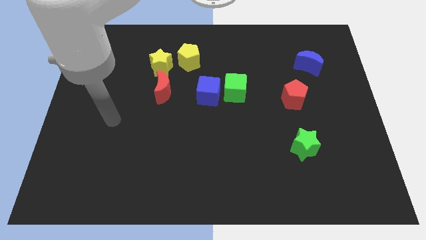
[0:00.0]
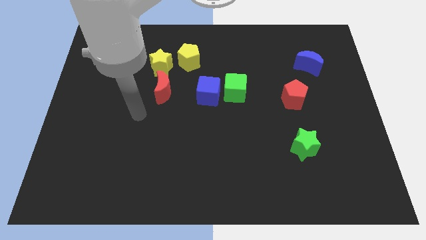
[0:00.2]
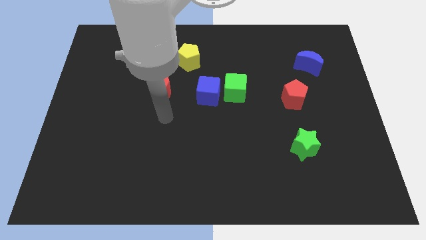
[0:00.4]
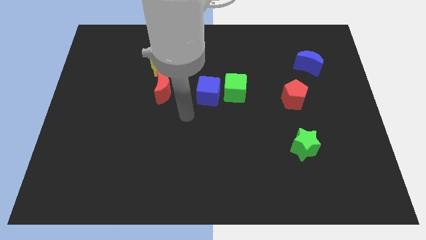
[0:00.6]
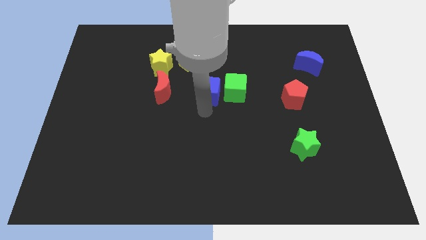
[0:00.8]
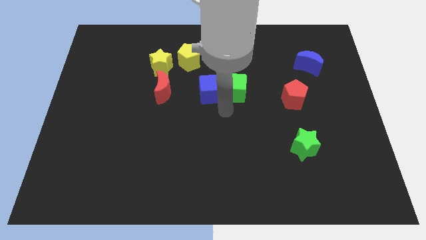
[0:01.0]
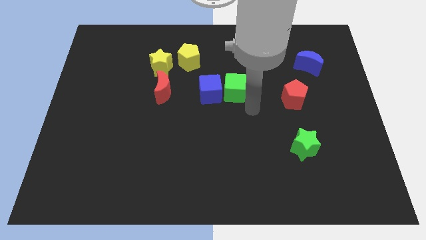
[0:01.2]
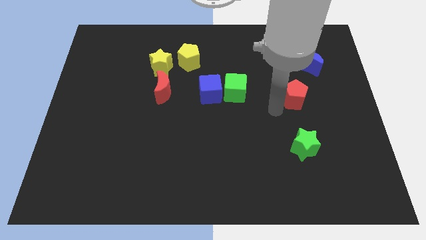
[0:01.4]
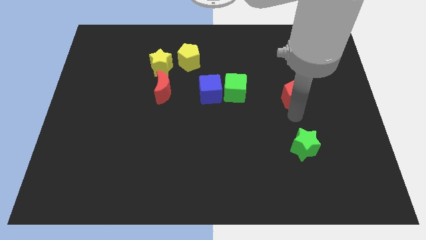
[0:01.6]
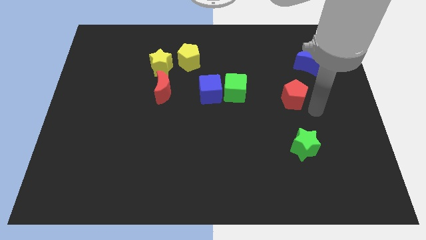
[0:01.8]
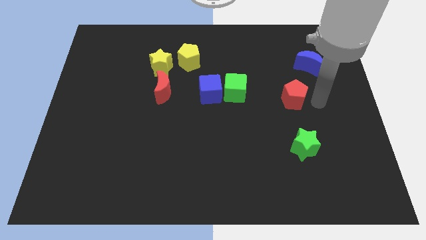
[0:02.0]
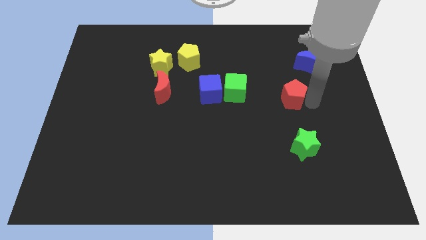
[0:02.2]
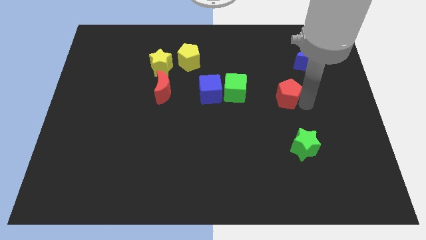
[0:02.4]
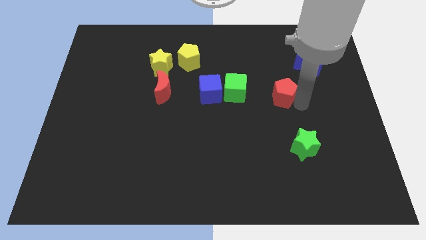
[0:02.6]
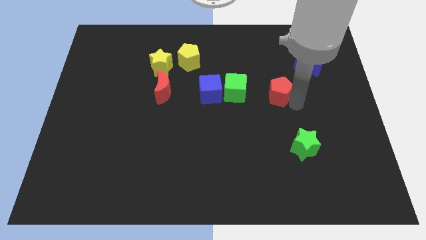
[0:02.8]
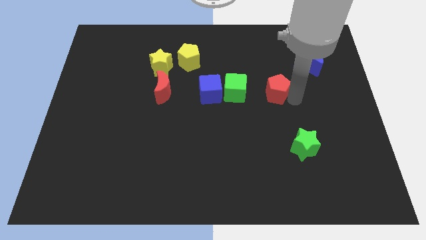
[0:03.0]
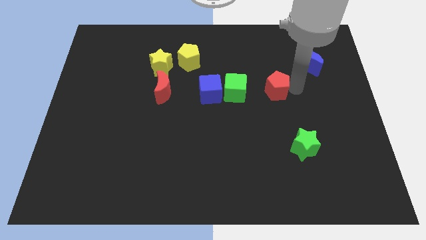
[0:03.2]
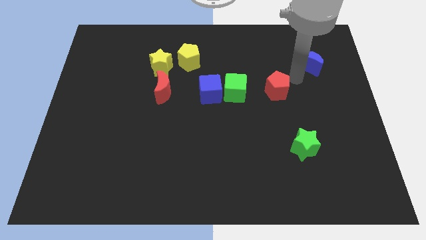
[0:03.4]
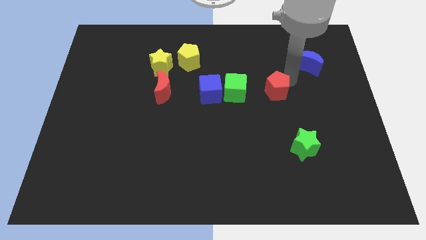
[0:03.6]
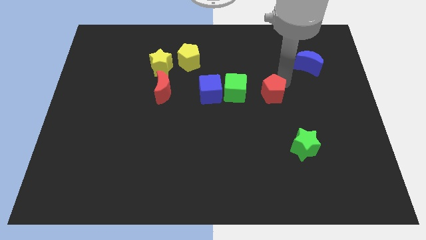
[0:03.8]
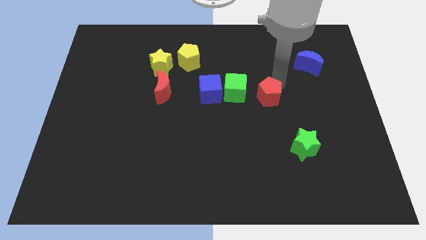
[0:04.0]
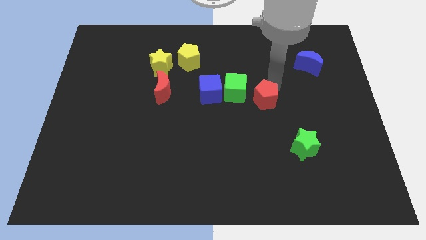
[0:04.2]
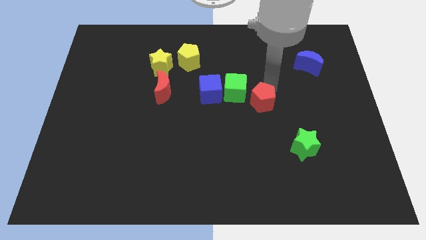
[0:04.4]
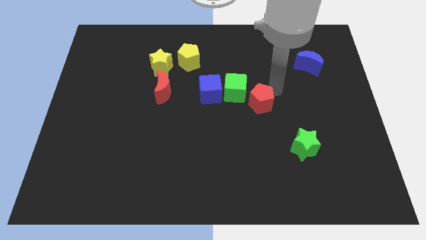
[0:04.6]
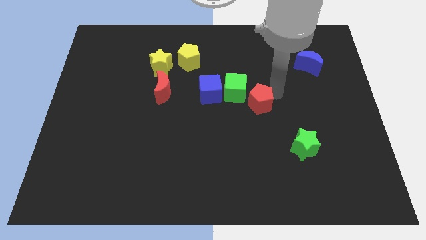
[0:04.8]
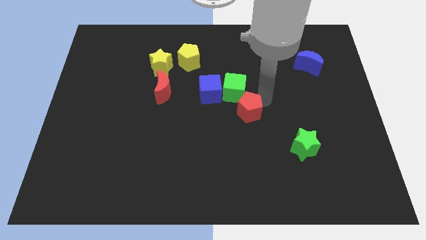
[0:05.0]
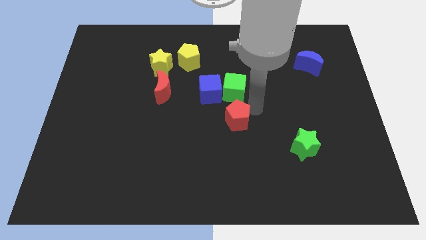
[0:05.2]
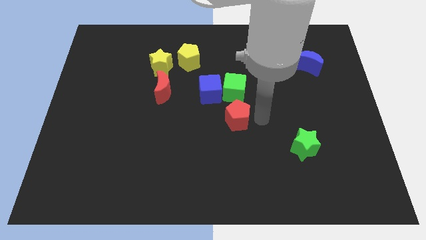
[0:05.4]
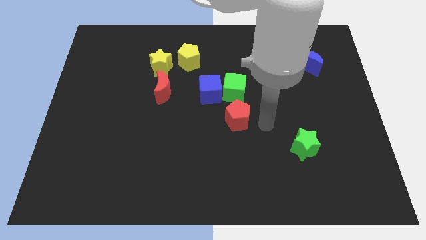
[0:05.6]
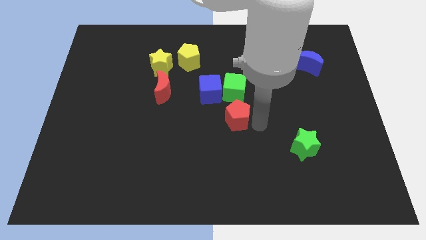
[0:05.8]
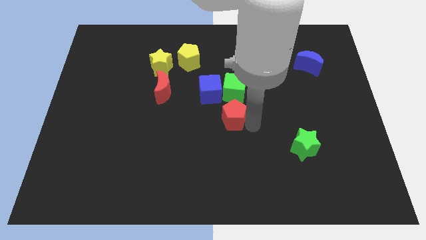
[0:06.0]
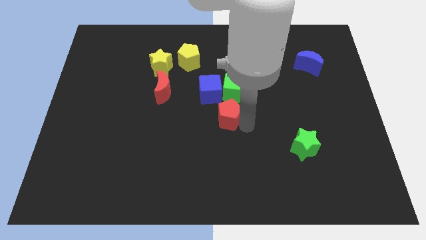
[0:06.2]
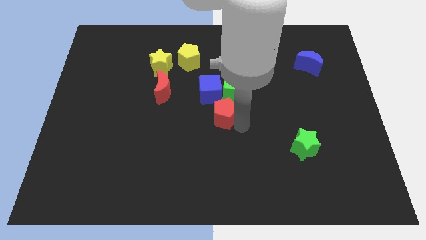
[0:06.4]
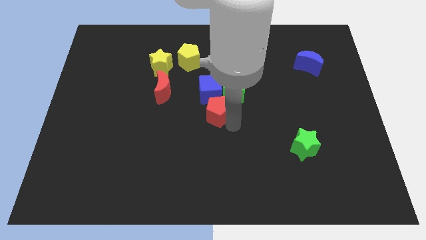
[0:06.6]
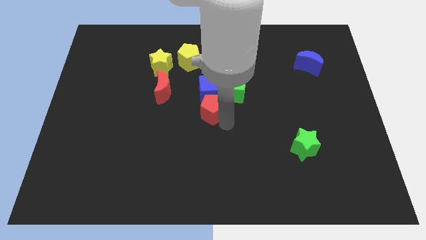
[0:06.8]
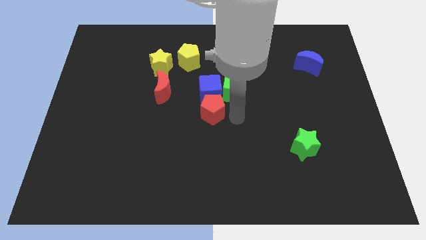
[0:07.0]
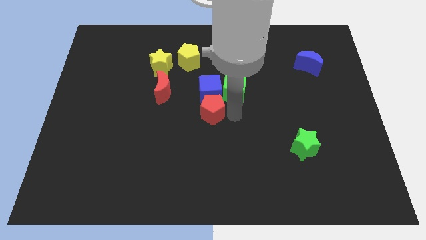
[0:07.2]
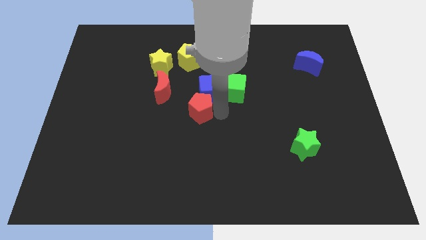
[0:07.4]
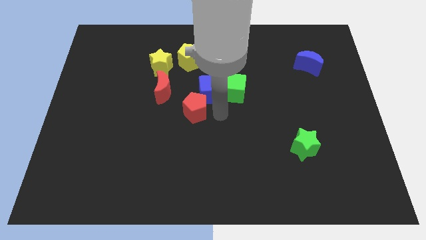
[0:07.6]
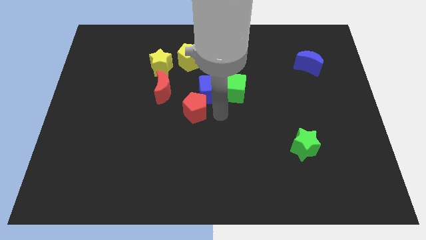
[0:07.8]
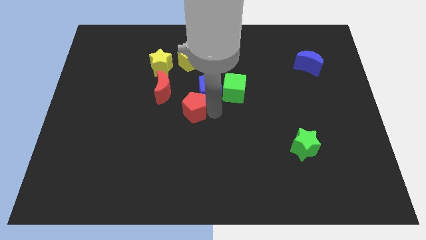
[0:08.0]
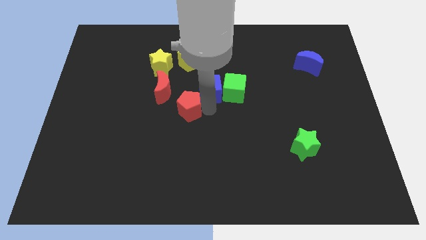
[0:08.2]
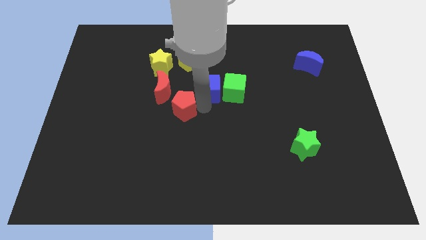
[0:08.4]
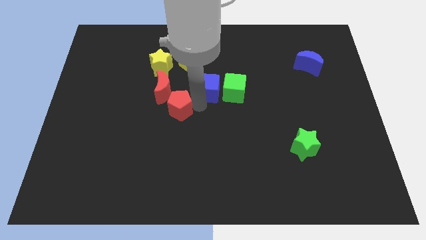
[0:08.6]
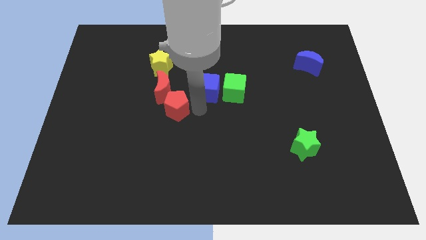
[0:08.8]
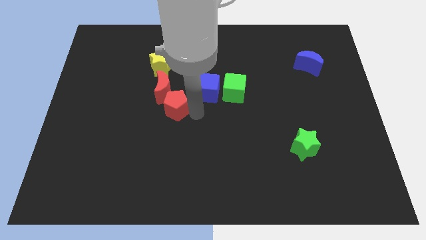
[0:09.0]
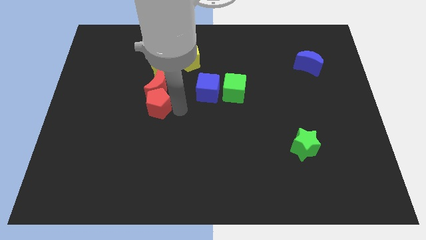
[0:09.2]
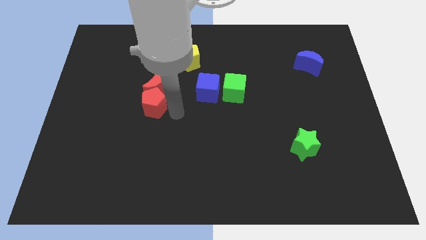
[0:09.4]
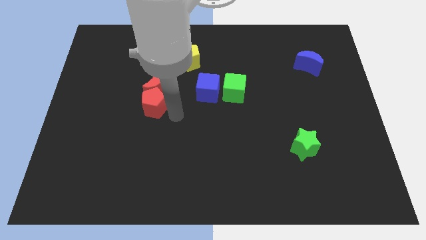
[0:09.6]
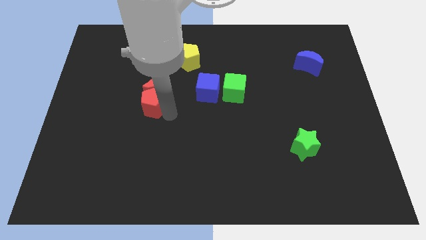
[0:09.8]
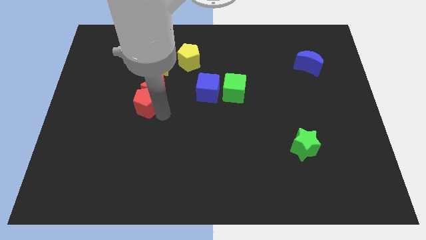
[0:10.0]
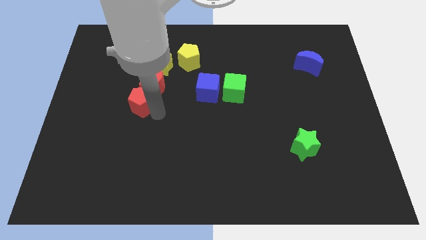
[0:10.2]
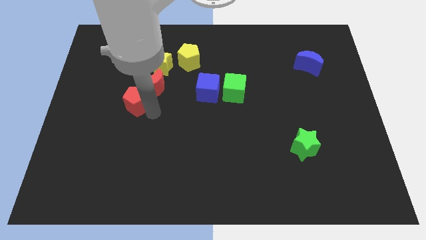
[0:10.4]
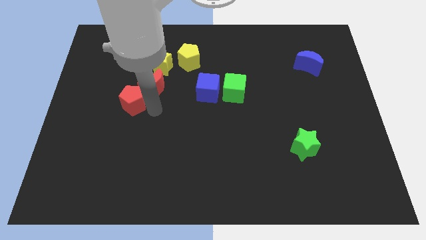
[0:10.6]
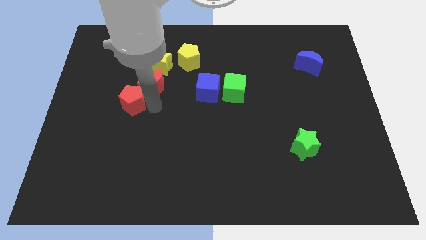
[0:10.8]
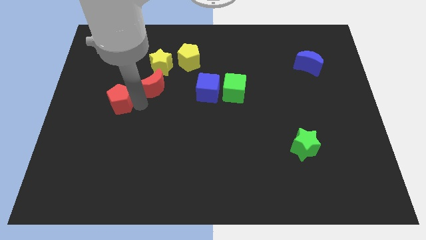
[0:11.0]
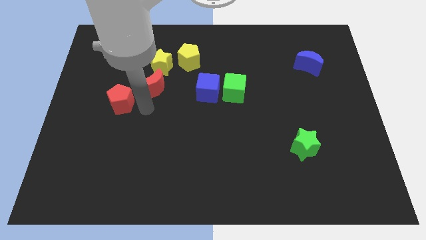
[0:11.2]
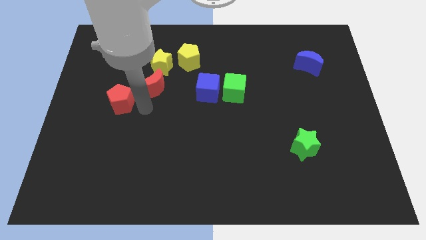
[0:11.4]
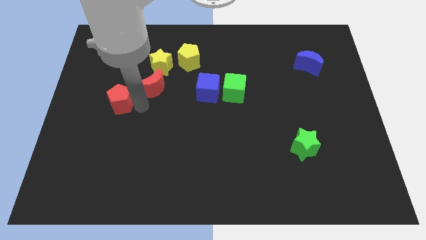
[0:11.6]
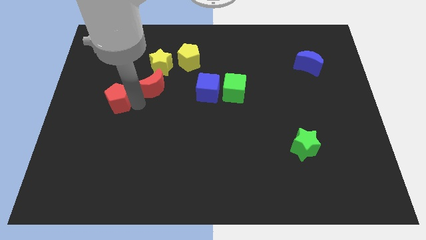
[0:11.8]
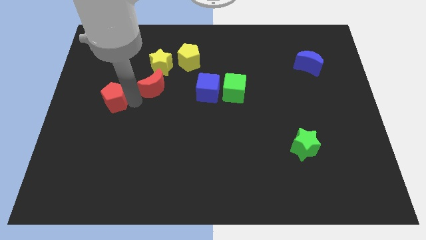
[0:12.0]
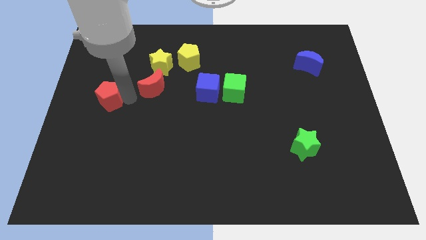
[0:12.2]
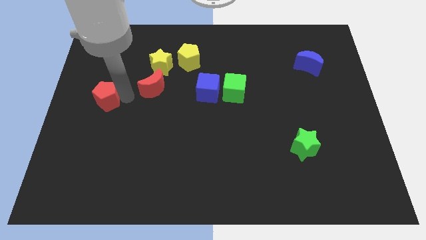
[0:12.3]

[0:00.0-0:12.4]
slide the red pentagon to the left side
